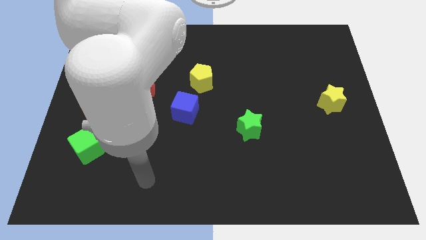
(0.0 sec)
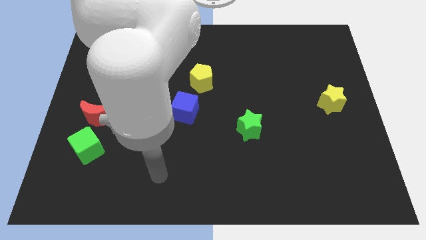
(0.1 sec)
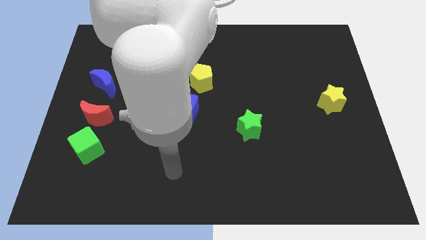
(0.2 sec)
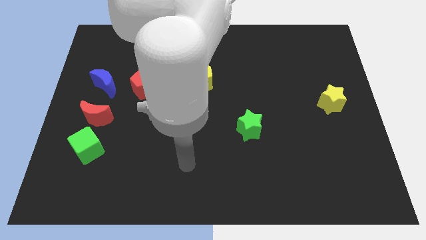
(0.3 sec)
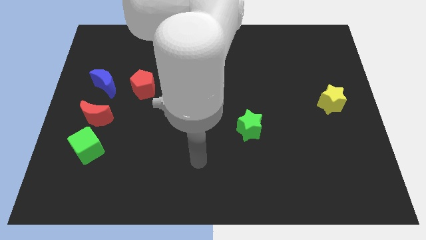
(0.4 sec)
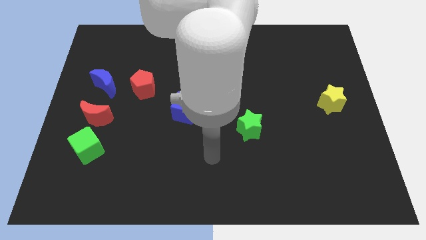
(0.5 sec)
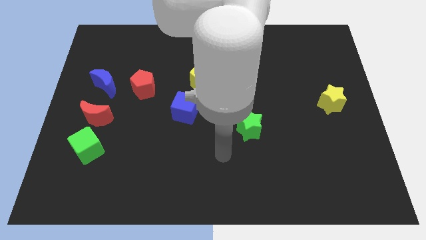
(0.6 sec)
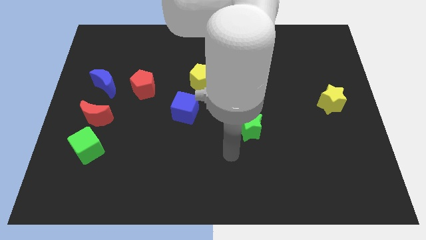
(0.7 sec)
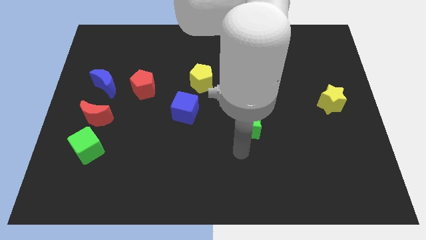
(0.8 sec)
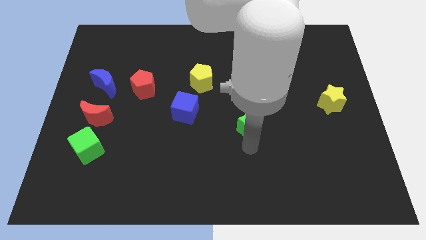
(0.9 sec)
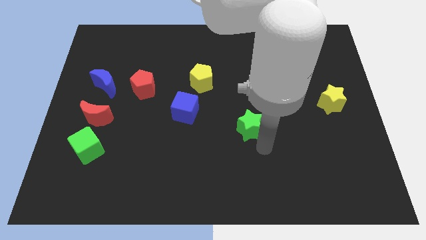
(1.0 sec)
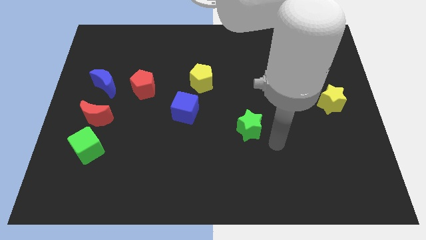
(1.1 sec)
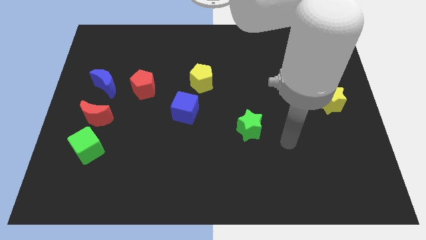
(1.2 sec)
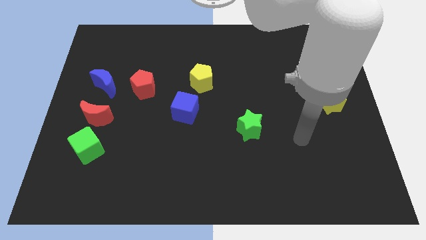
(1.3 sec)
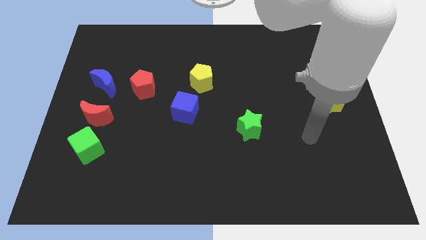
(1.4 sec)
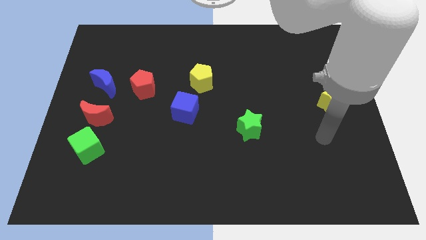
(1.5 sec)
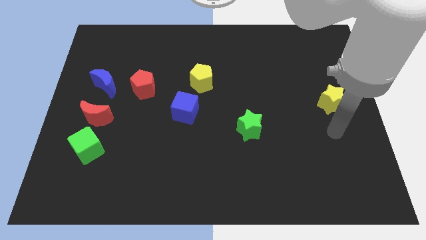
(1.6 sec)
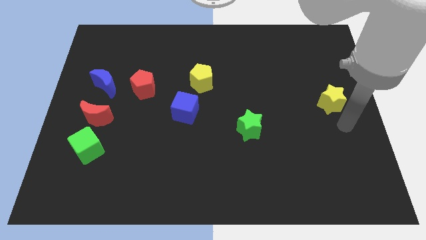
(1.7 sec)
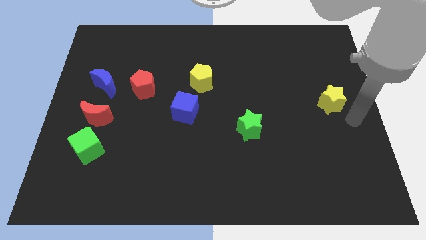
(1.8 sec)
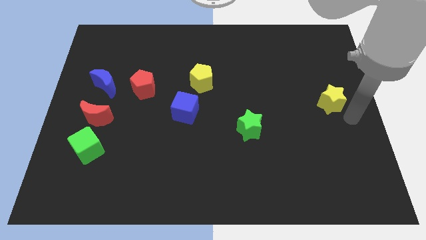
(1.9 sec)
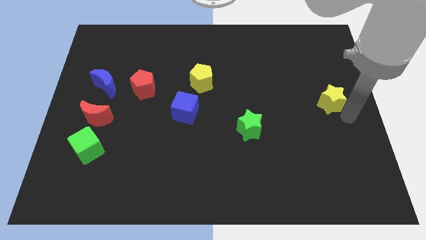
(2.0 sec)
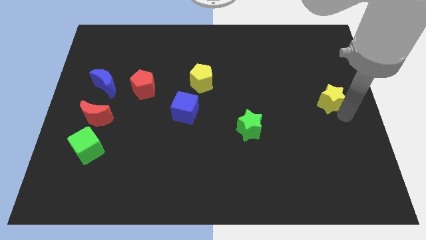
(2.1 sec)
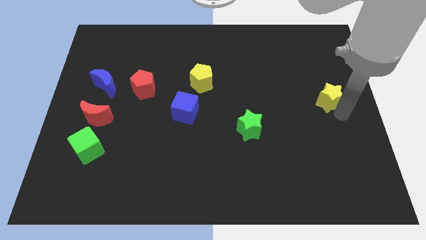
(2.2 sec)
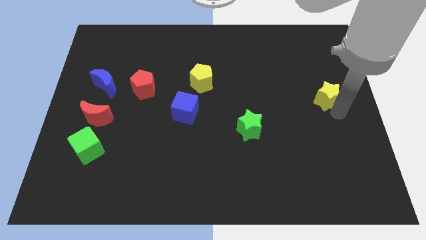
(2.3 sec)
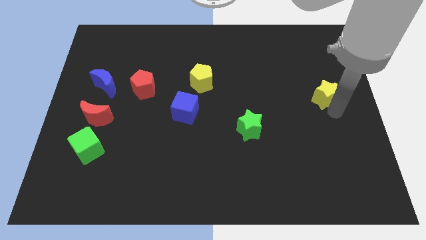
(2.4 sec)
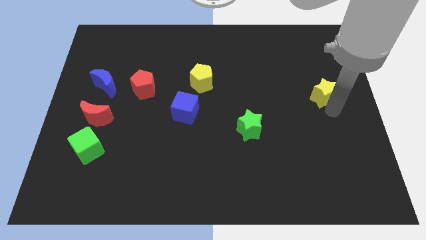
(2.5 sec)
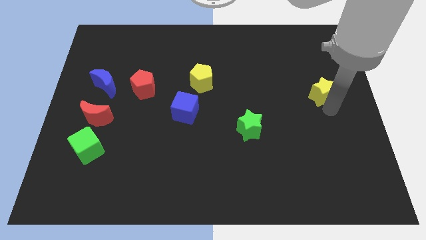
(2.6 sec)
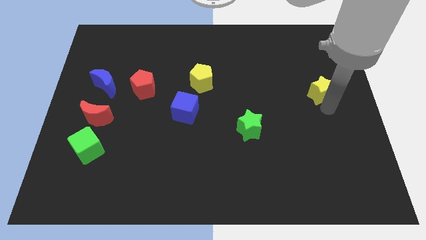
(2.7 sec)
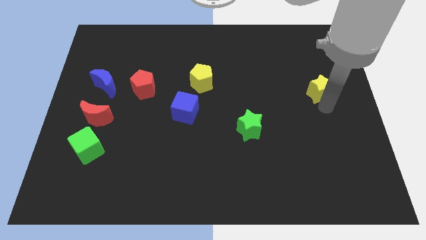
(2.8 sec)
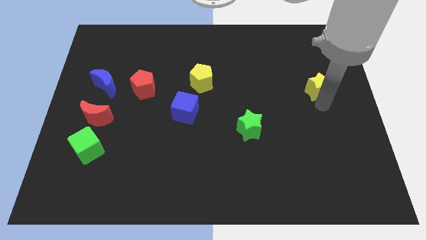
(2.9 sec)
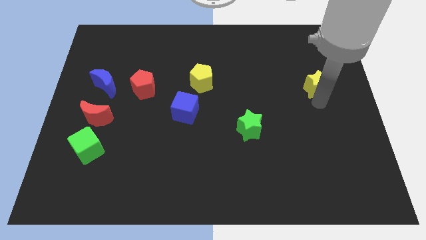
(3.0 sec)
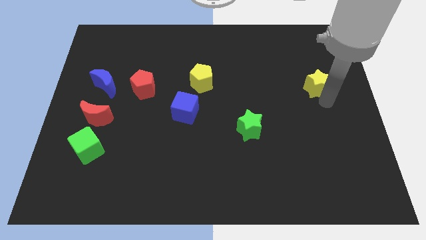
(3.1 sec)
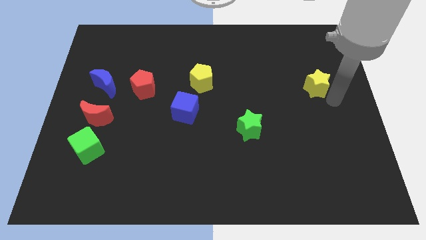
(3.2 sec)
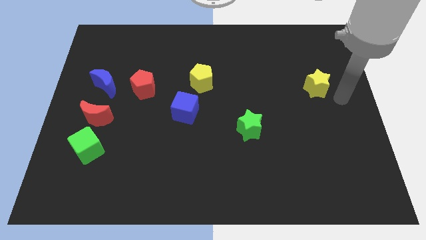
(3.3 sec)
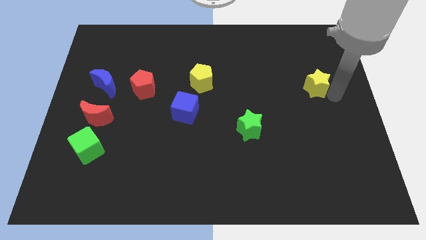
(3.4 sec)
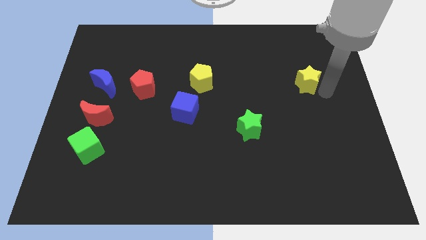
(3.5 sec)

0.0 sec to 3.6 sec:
slide the yellow star up and to the left somewhat

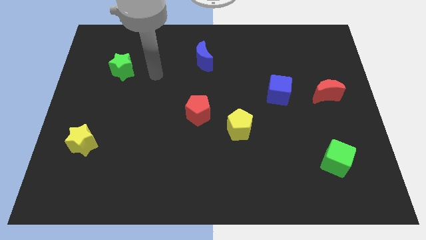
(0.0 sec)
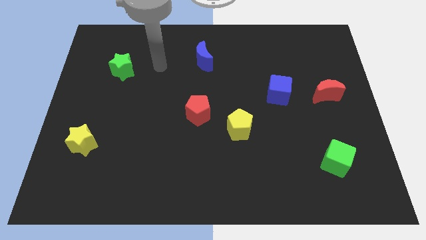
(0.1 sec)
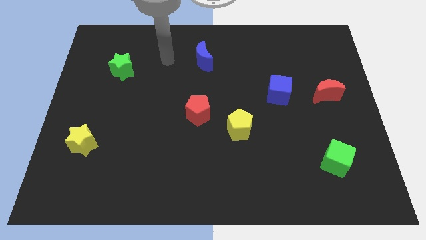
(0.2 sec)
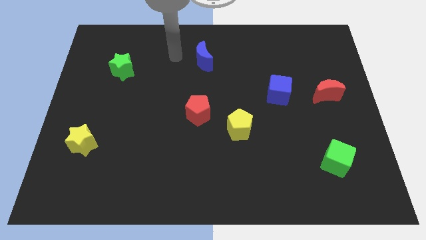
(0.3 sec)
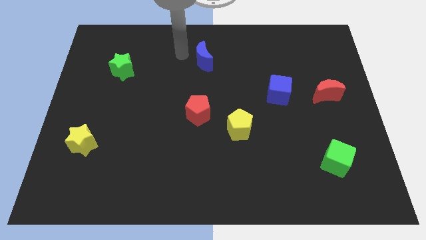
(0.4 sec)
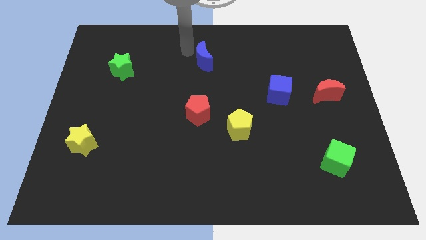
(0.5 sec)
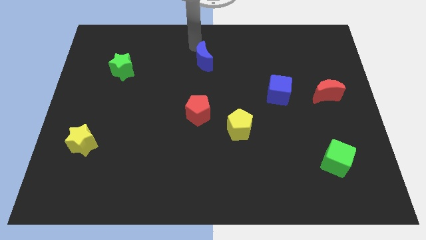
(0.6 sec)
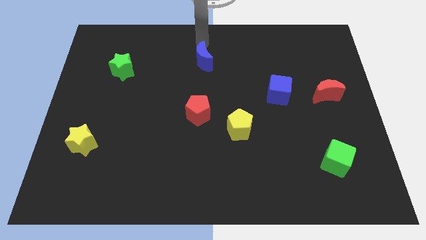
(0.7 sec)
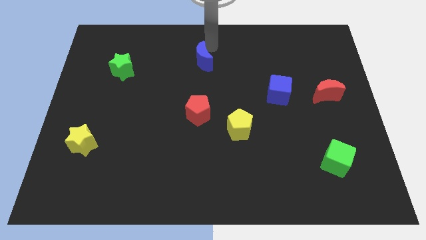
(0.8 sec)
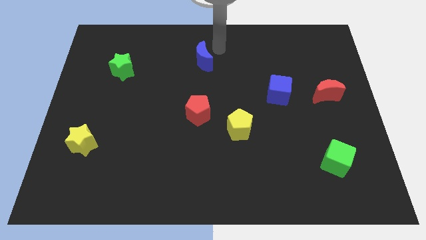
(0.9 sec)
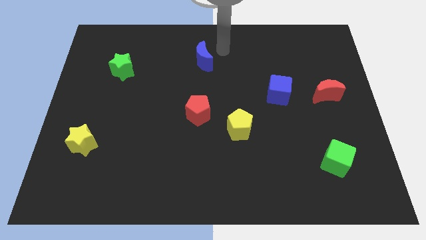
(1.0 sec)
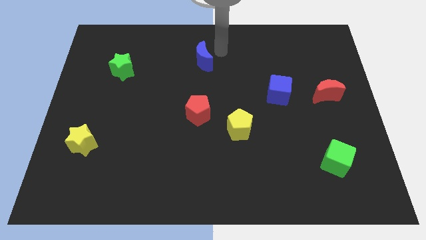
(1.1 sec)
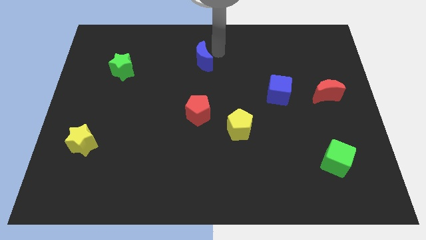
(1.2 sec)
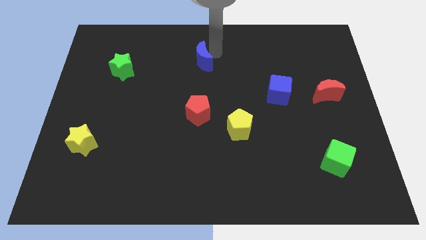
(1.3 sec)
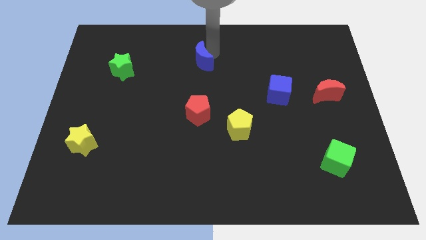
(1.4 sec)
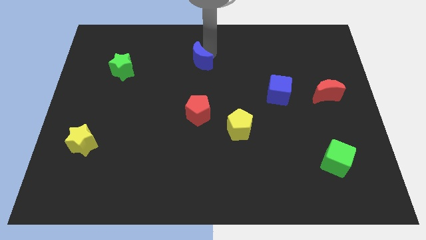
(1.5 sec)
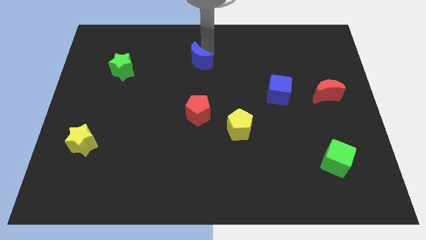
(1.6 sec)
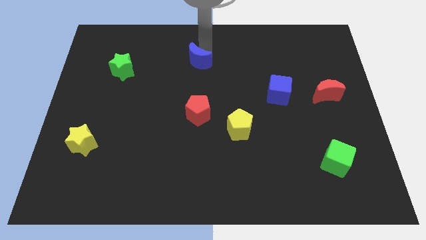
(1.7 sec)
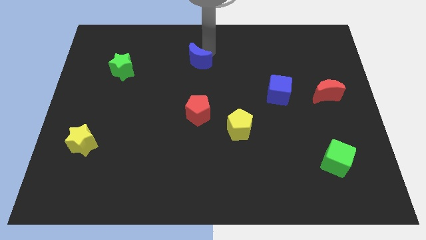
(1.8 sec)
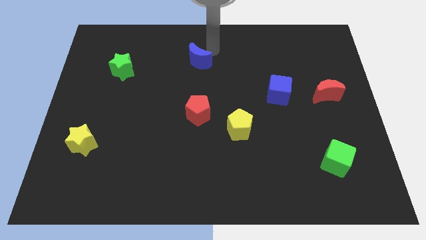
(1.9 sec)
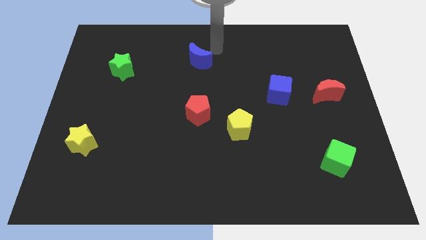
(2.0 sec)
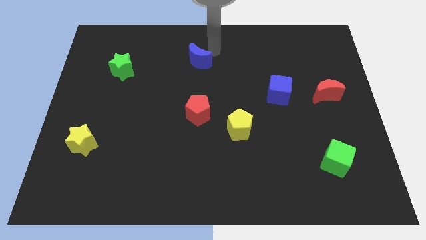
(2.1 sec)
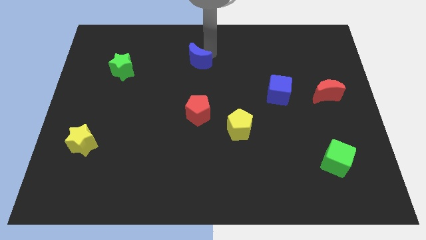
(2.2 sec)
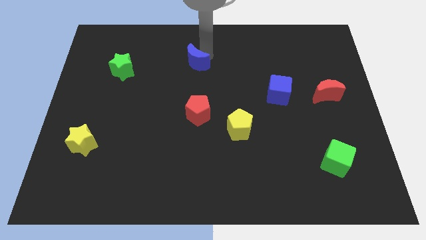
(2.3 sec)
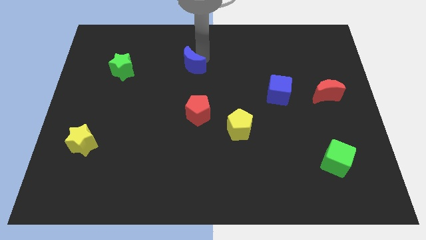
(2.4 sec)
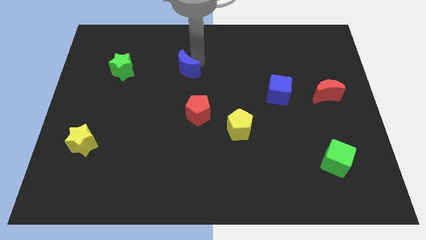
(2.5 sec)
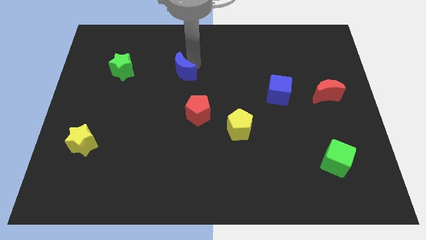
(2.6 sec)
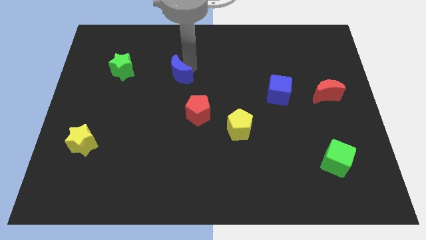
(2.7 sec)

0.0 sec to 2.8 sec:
move the blue moon down and to the left slightly

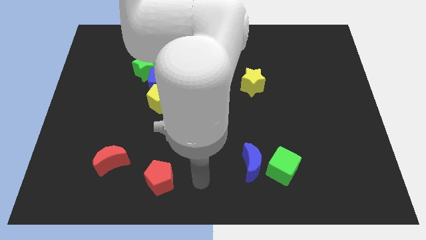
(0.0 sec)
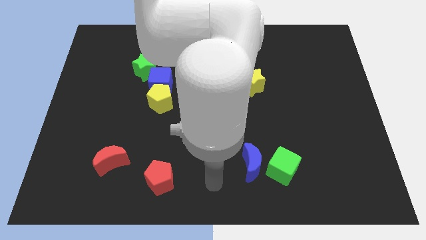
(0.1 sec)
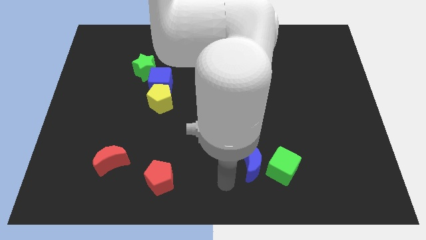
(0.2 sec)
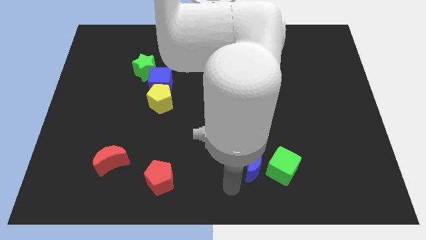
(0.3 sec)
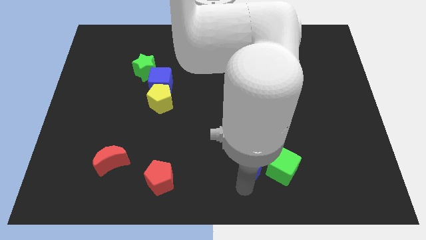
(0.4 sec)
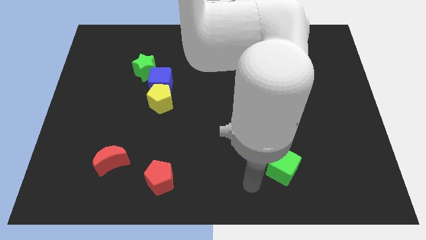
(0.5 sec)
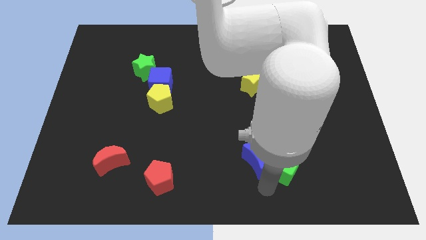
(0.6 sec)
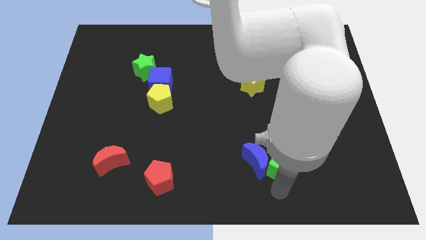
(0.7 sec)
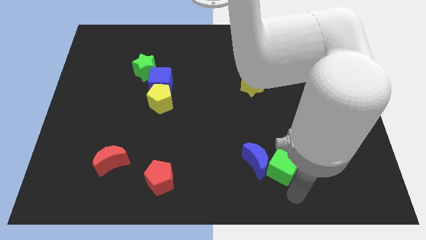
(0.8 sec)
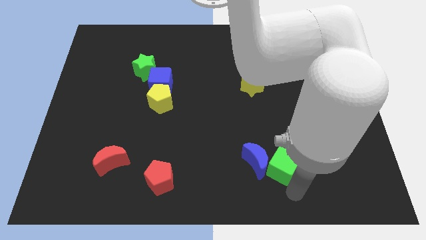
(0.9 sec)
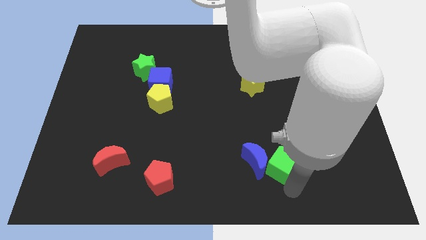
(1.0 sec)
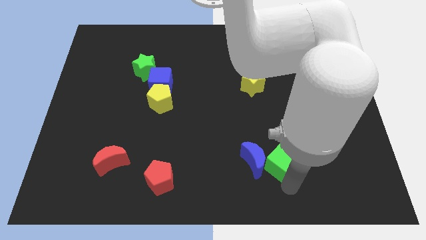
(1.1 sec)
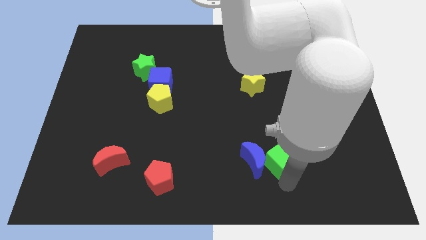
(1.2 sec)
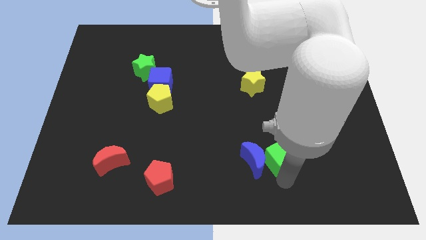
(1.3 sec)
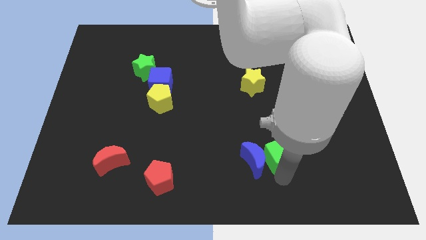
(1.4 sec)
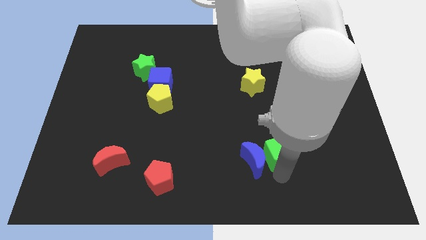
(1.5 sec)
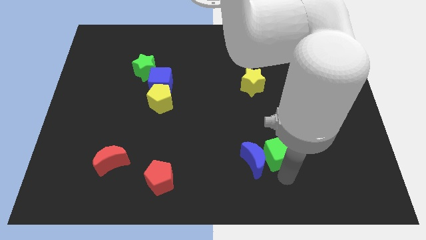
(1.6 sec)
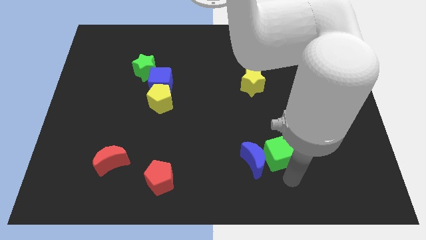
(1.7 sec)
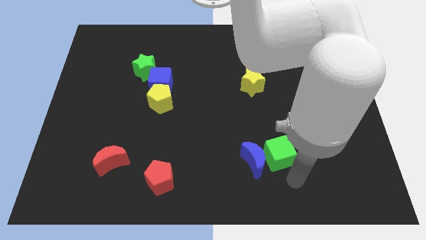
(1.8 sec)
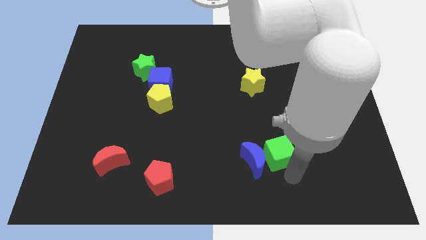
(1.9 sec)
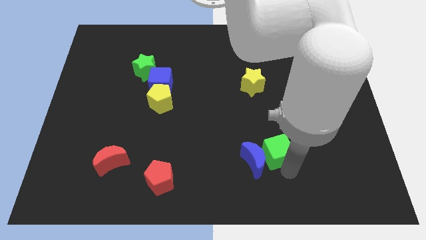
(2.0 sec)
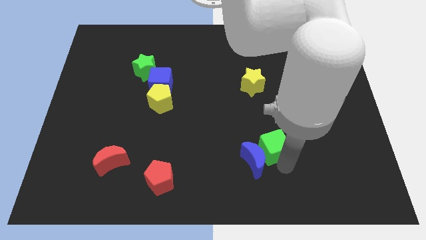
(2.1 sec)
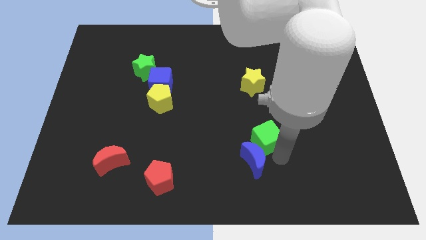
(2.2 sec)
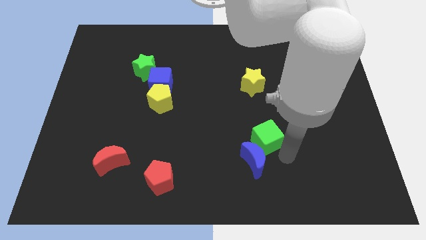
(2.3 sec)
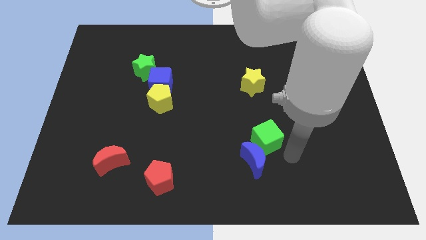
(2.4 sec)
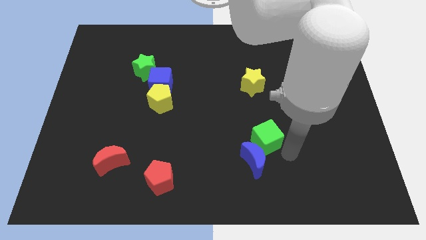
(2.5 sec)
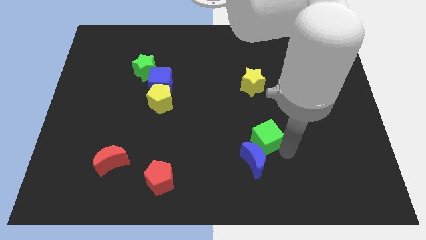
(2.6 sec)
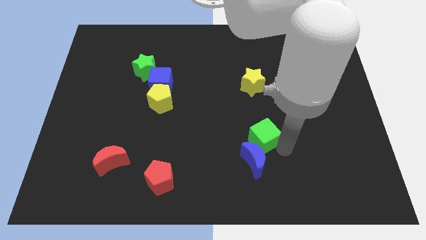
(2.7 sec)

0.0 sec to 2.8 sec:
move the green cube diagonally upwards and left a little
